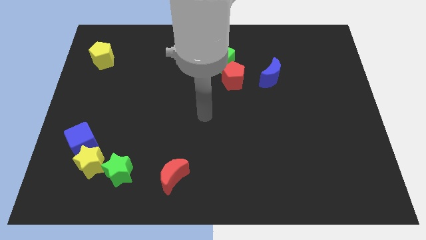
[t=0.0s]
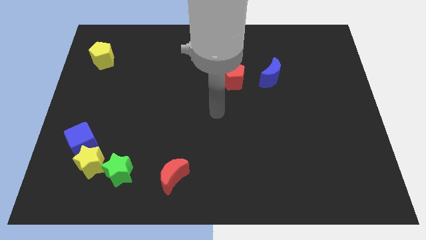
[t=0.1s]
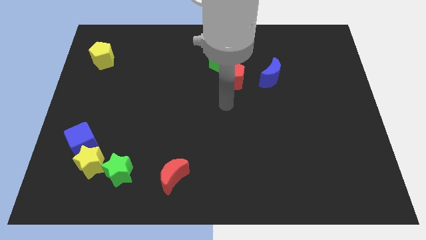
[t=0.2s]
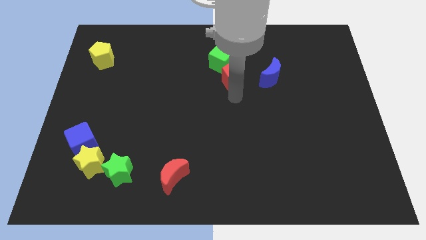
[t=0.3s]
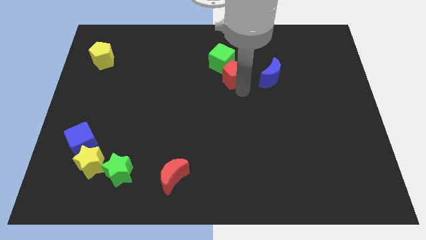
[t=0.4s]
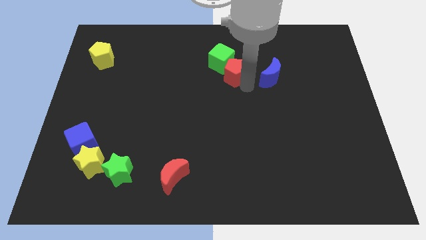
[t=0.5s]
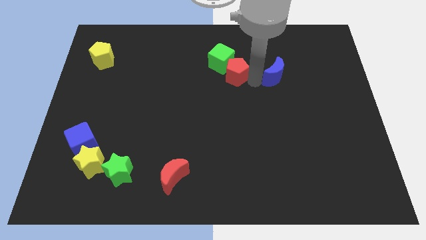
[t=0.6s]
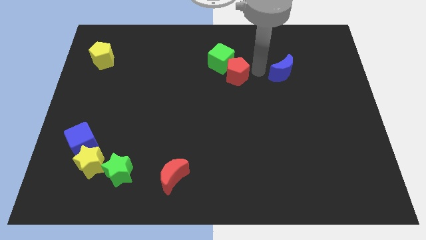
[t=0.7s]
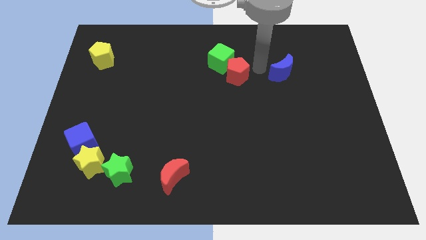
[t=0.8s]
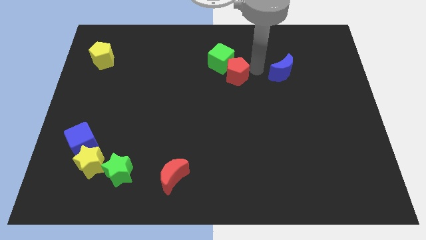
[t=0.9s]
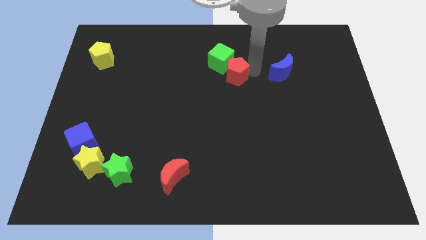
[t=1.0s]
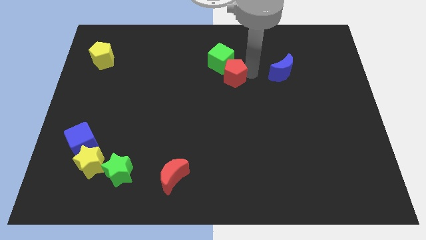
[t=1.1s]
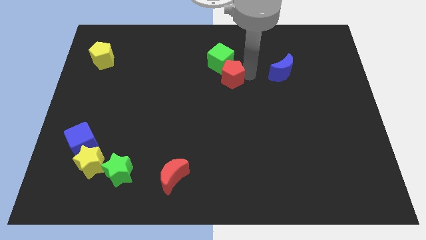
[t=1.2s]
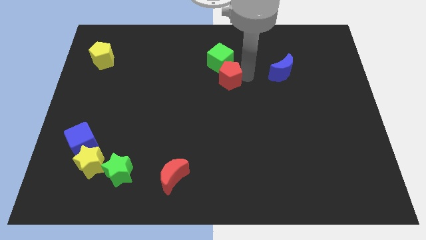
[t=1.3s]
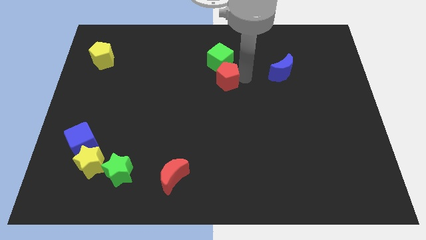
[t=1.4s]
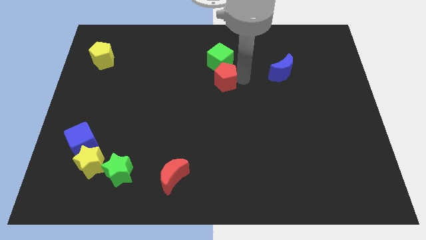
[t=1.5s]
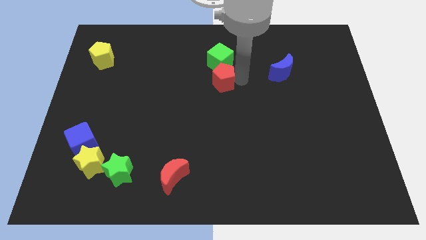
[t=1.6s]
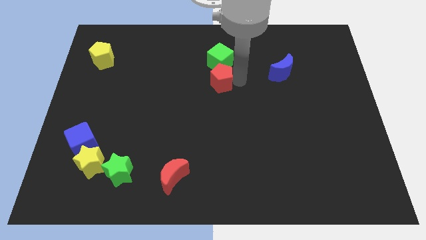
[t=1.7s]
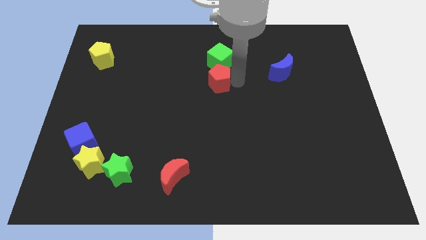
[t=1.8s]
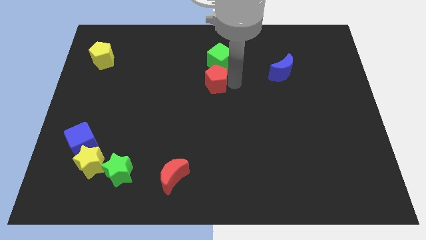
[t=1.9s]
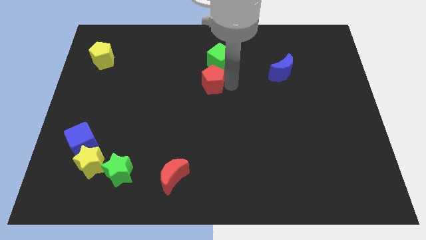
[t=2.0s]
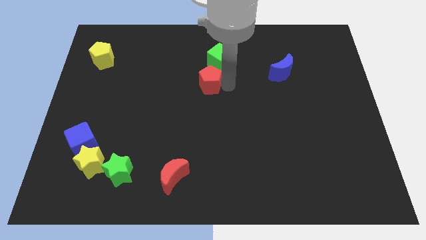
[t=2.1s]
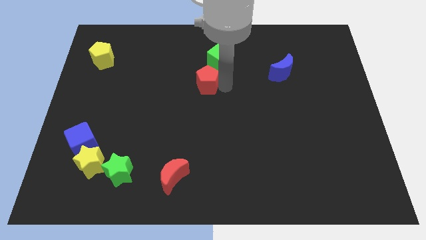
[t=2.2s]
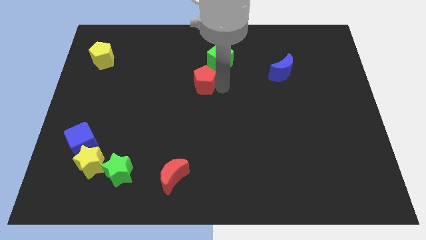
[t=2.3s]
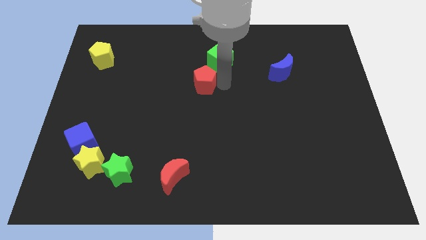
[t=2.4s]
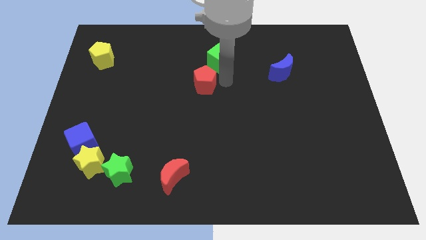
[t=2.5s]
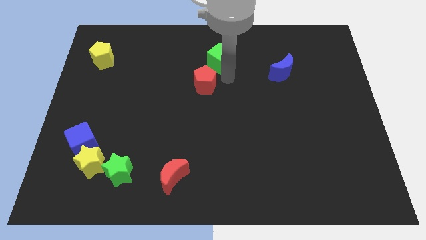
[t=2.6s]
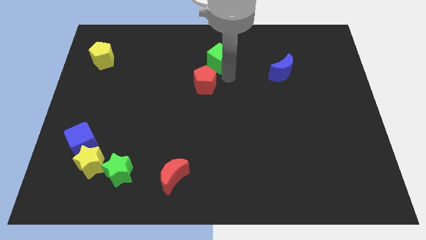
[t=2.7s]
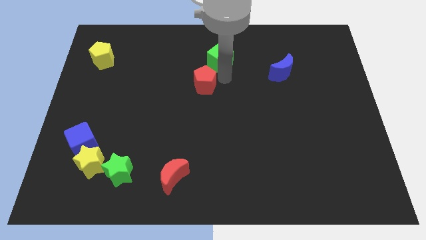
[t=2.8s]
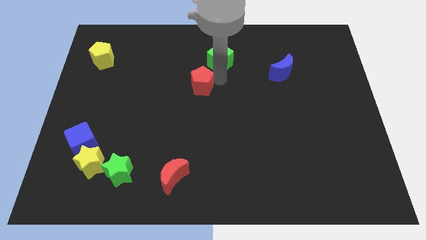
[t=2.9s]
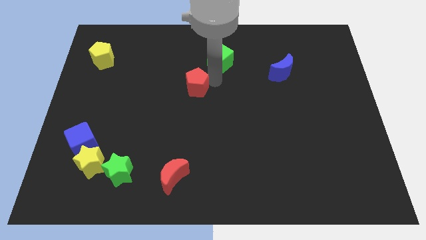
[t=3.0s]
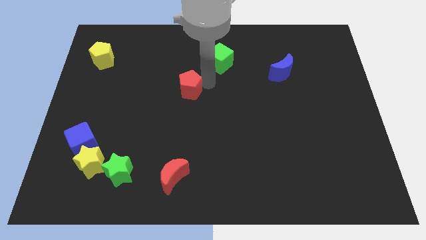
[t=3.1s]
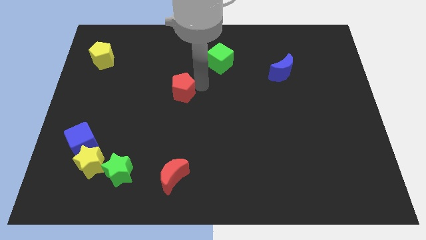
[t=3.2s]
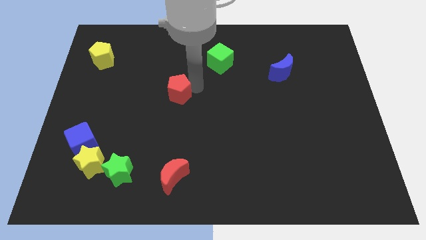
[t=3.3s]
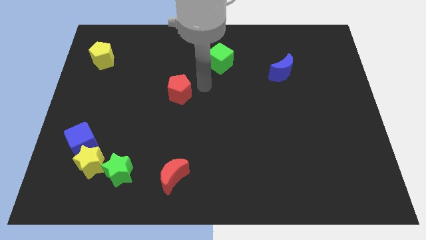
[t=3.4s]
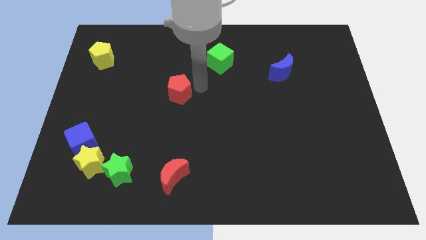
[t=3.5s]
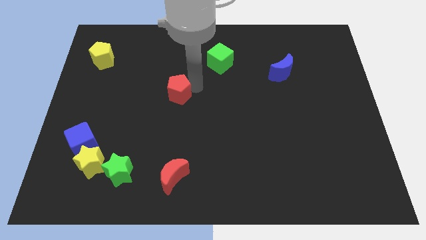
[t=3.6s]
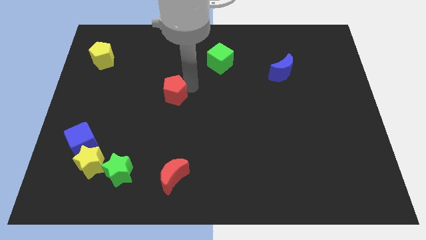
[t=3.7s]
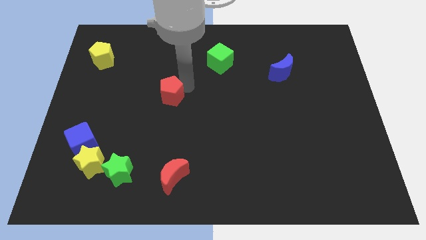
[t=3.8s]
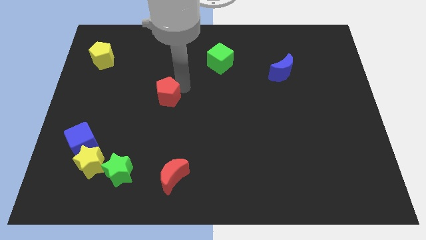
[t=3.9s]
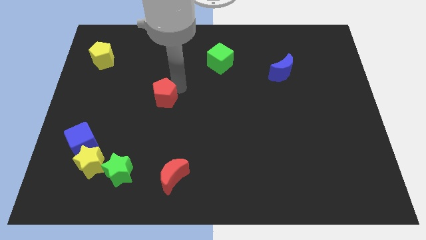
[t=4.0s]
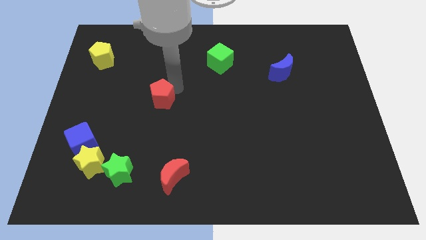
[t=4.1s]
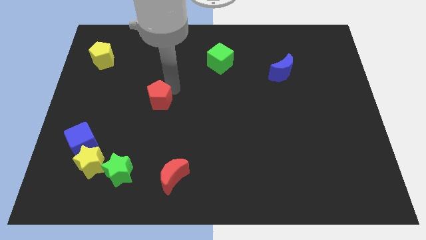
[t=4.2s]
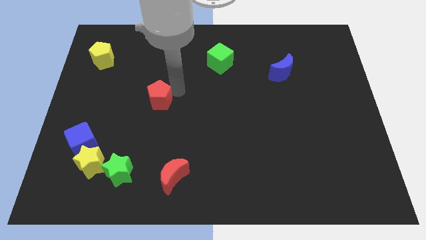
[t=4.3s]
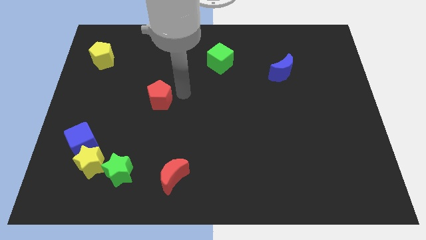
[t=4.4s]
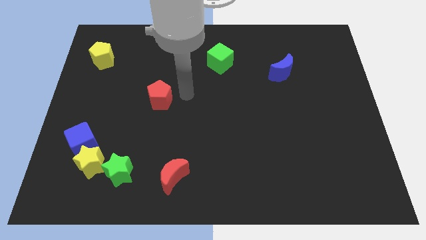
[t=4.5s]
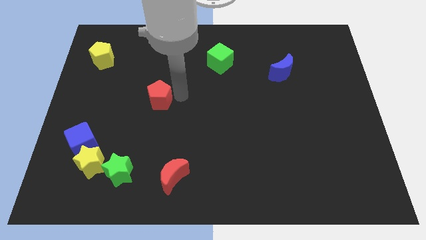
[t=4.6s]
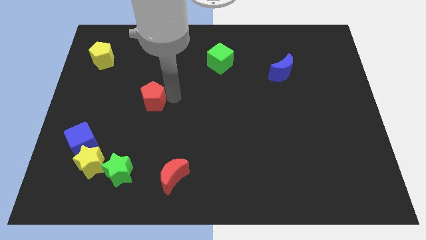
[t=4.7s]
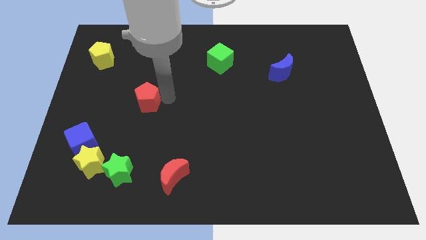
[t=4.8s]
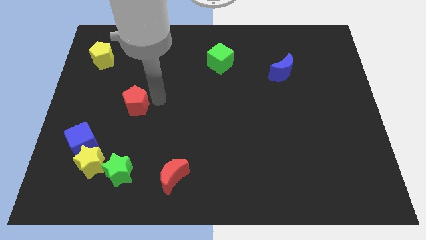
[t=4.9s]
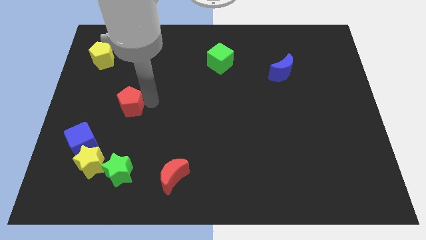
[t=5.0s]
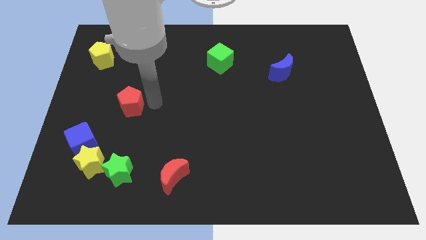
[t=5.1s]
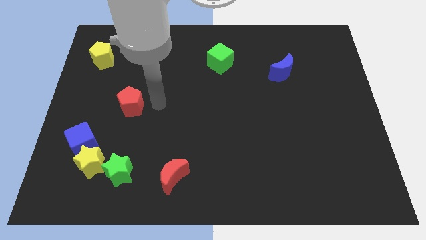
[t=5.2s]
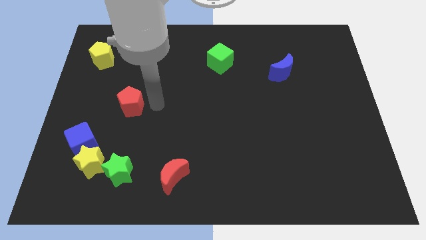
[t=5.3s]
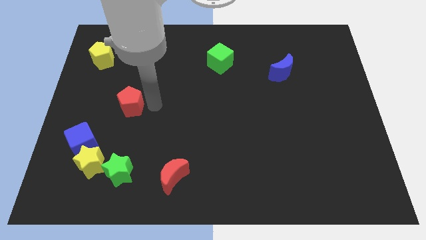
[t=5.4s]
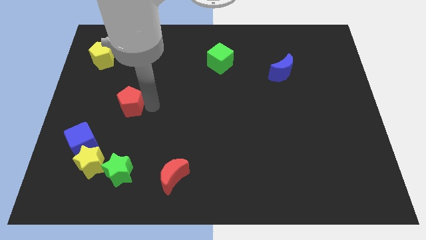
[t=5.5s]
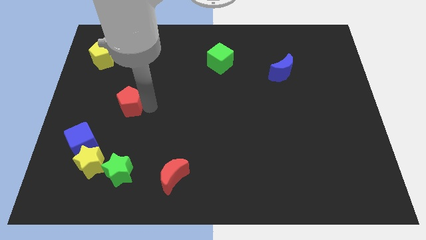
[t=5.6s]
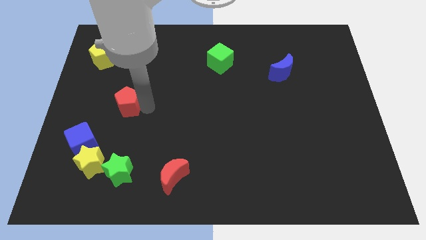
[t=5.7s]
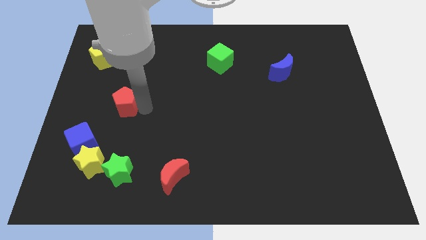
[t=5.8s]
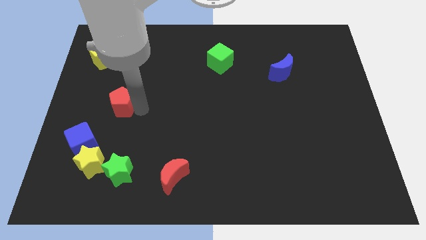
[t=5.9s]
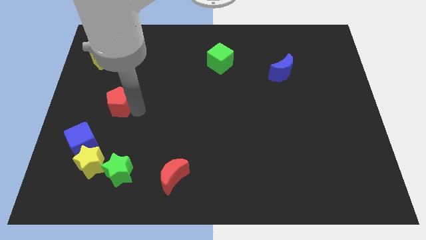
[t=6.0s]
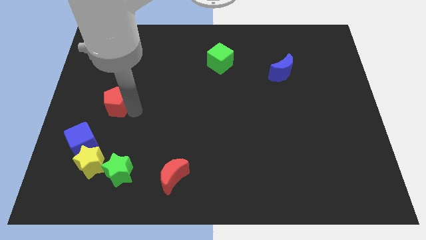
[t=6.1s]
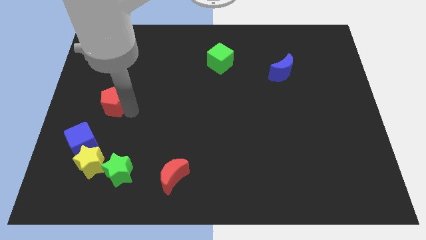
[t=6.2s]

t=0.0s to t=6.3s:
slide the red pentagon to the top of the blue cube

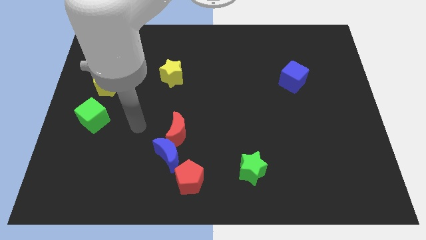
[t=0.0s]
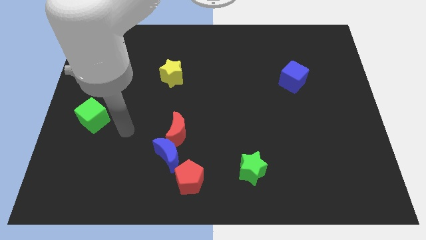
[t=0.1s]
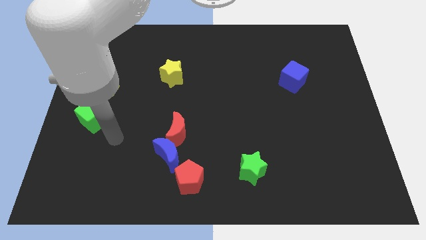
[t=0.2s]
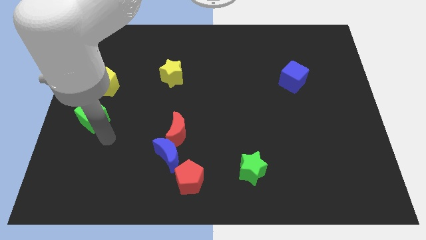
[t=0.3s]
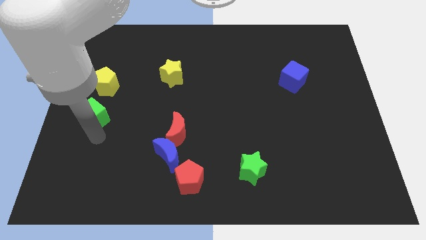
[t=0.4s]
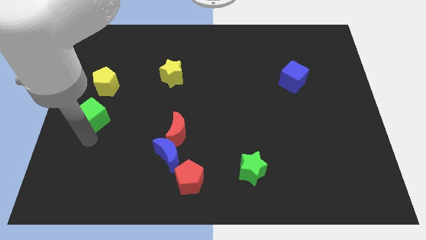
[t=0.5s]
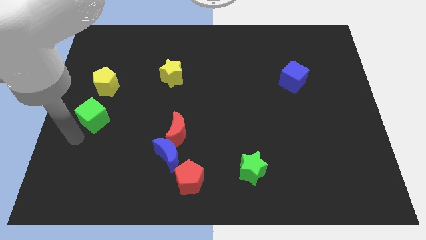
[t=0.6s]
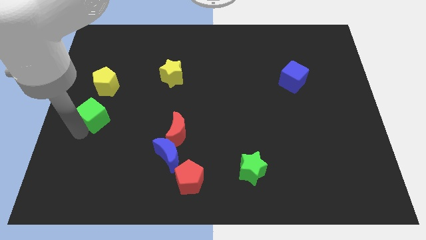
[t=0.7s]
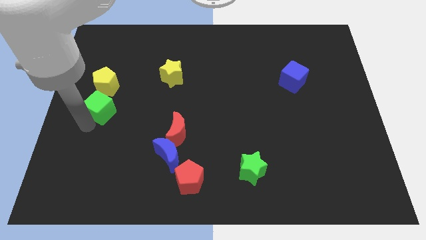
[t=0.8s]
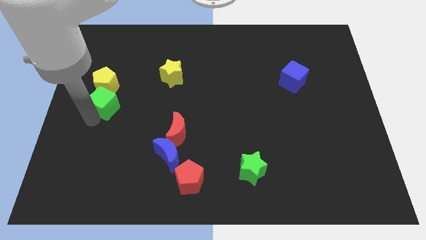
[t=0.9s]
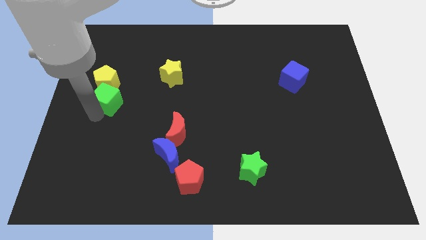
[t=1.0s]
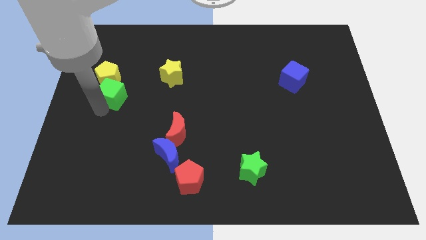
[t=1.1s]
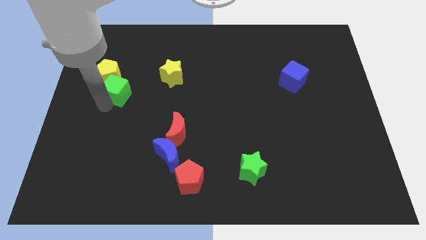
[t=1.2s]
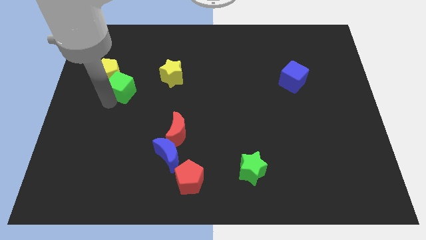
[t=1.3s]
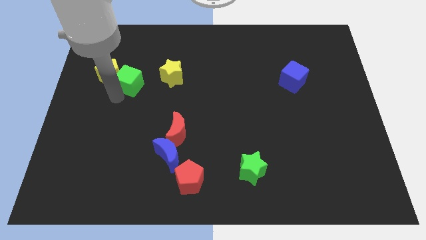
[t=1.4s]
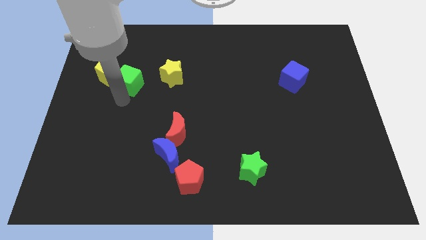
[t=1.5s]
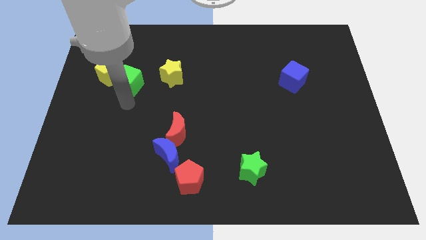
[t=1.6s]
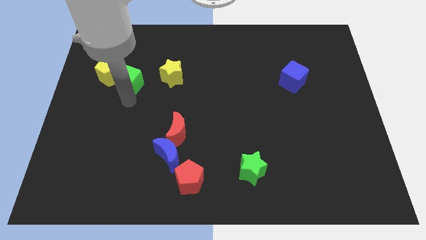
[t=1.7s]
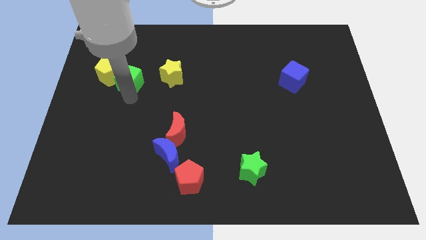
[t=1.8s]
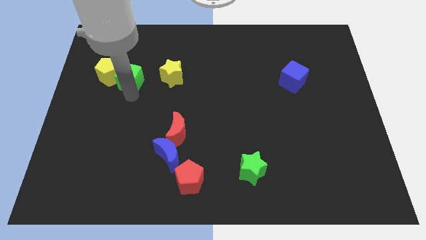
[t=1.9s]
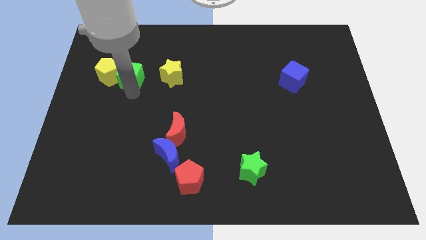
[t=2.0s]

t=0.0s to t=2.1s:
move the green cube to the top right of the yellow pentagon
